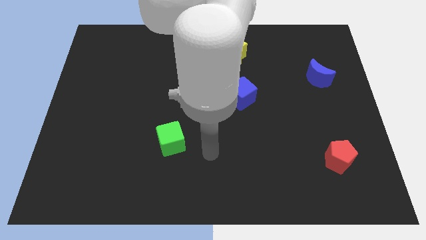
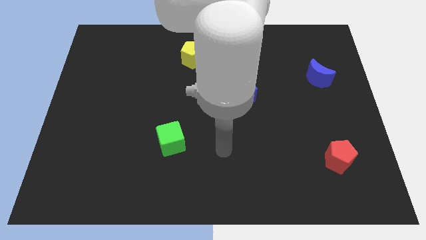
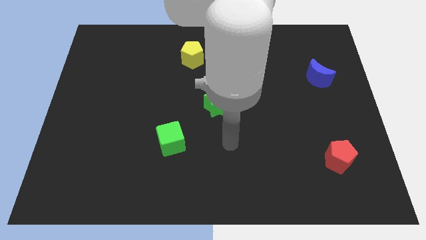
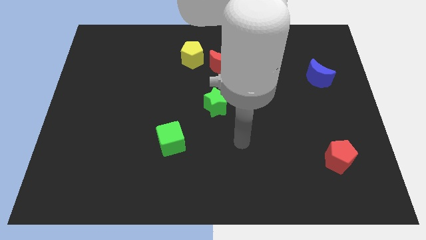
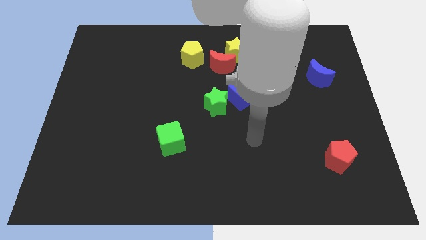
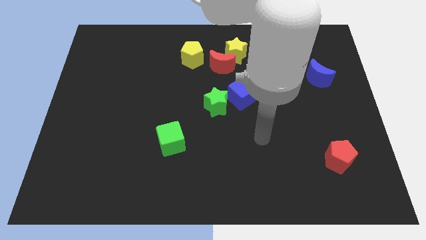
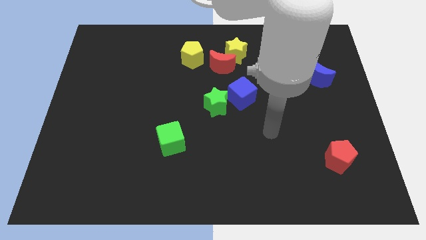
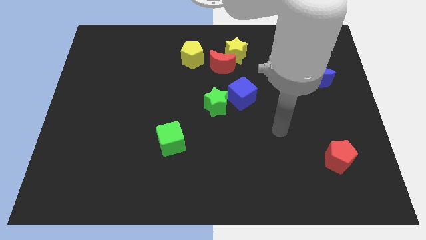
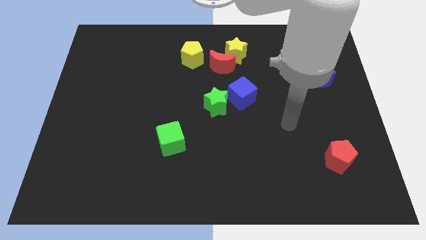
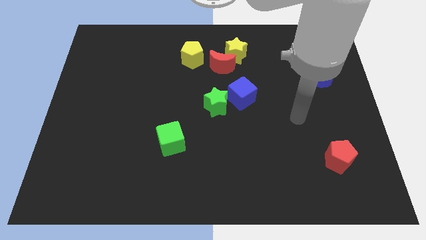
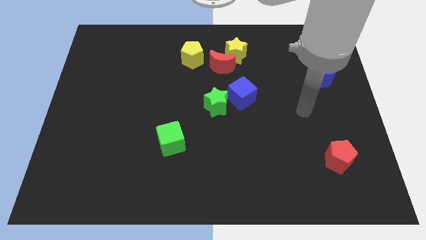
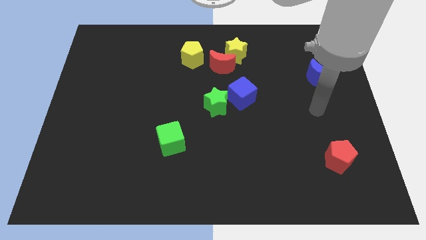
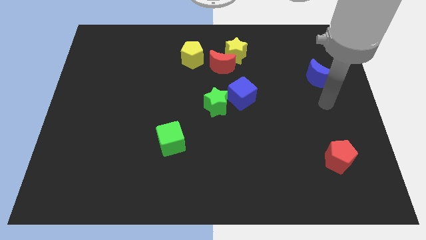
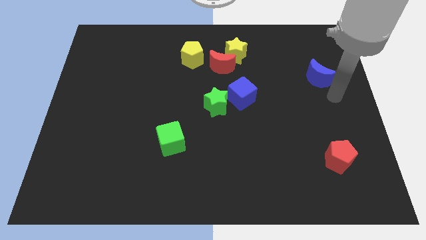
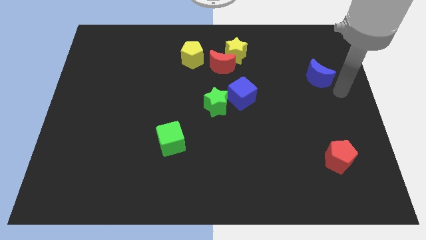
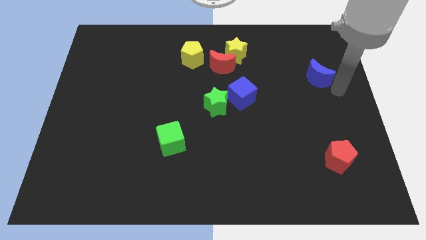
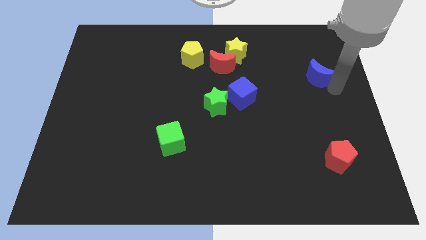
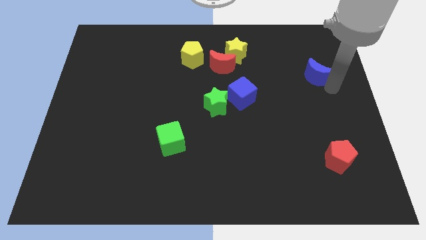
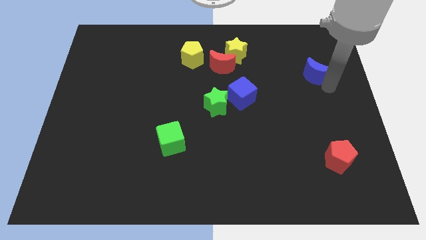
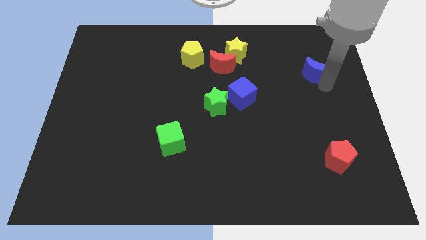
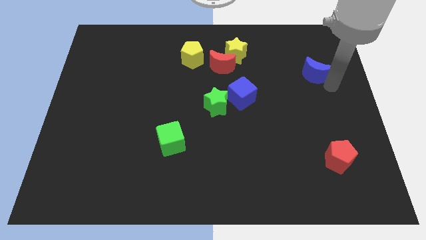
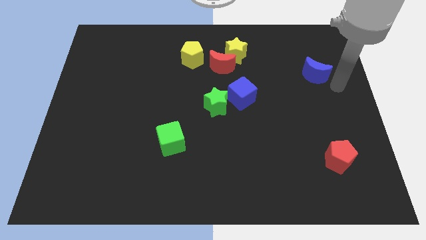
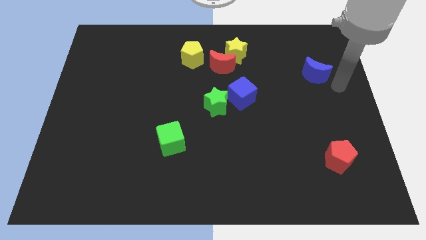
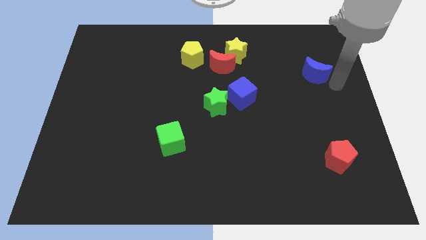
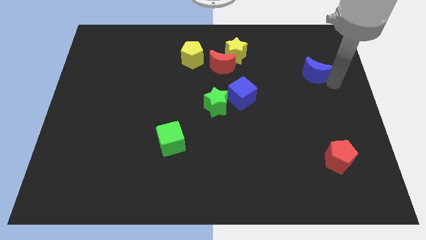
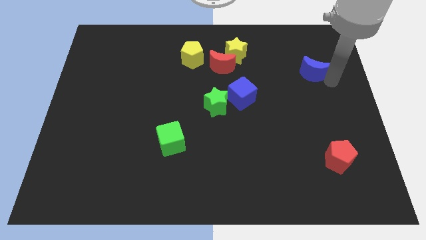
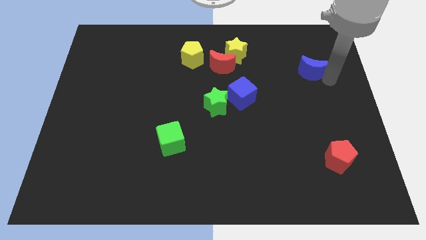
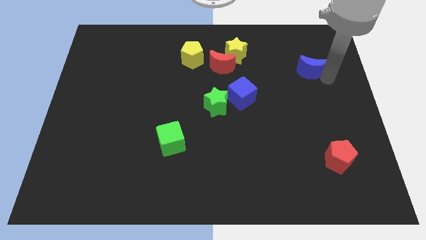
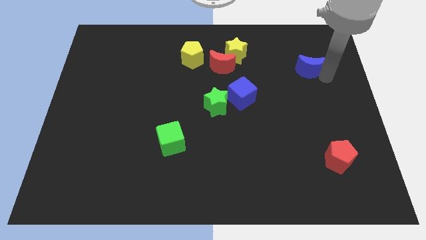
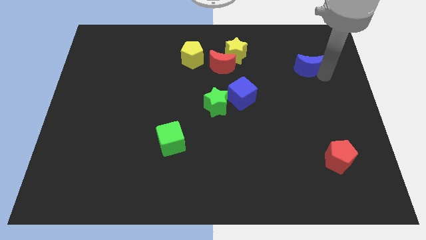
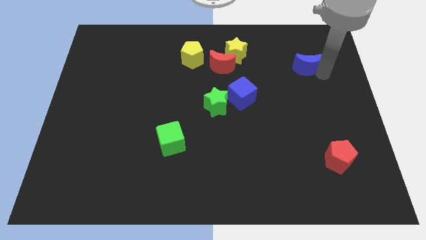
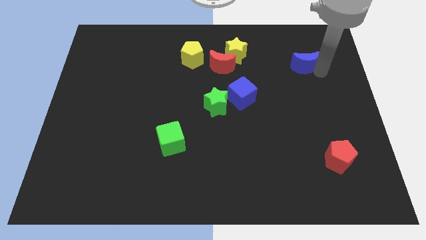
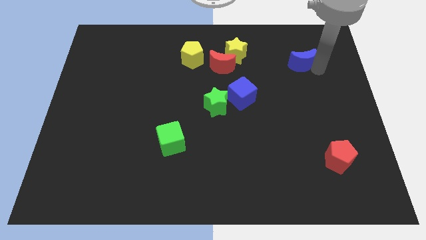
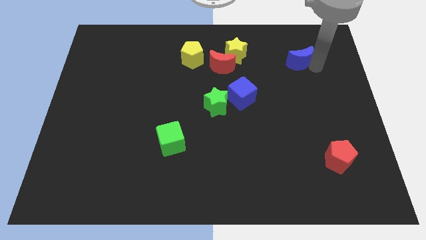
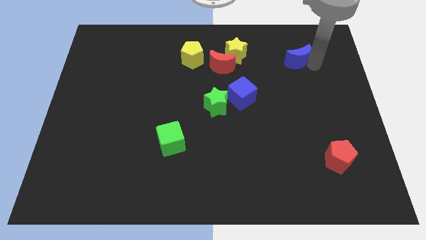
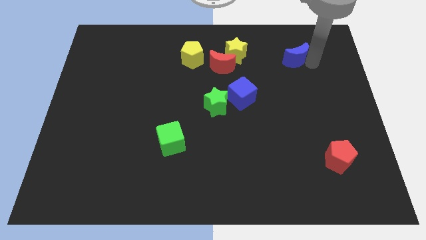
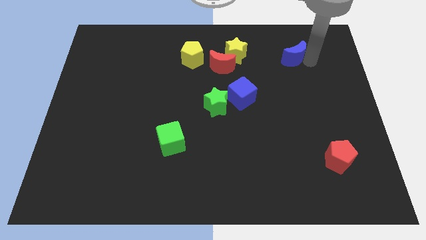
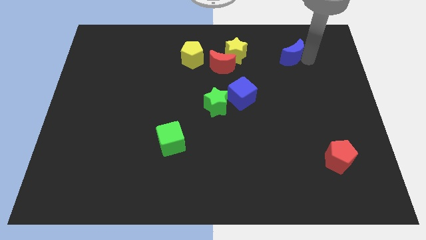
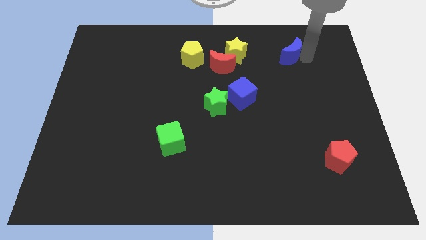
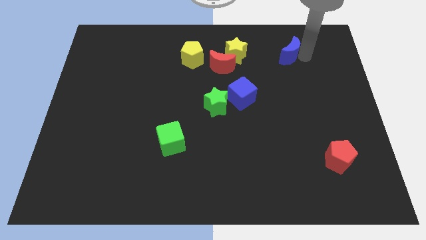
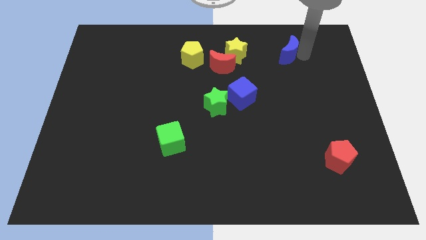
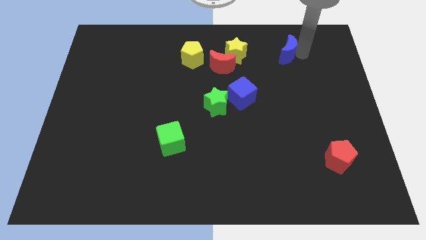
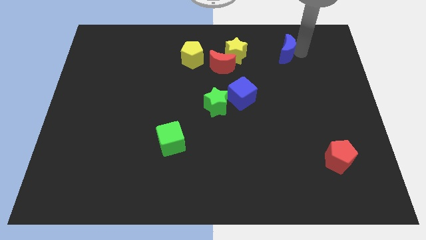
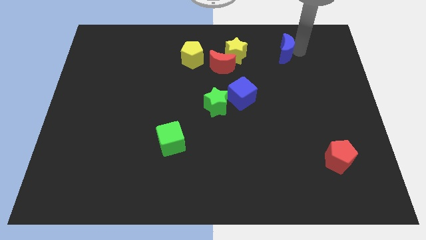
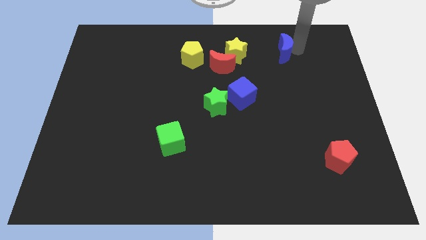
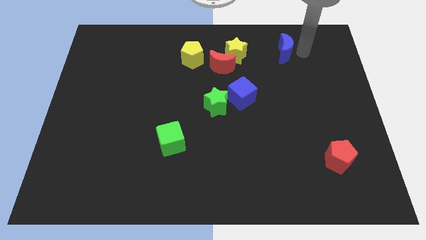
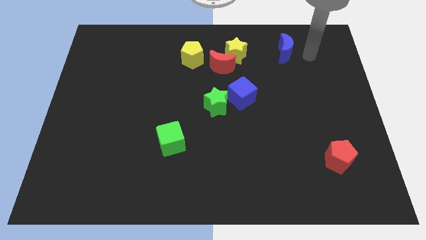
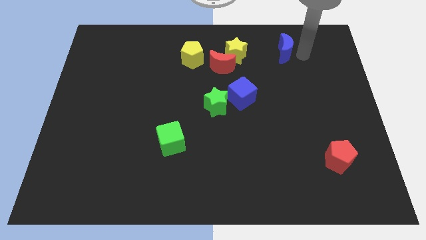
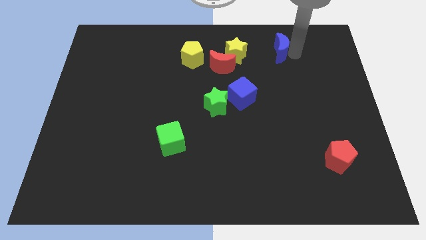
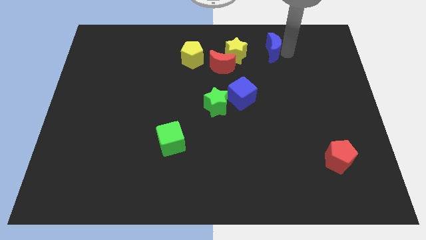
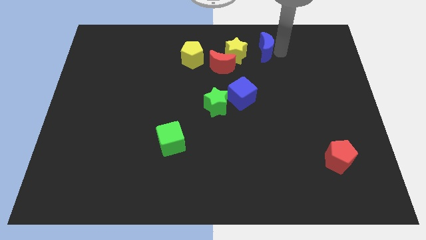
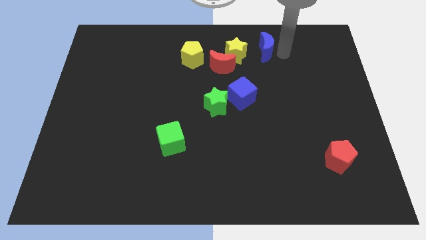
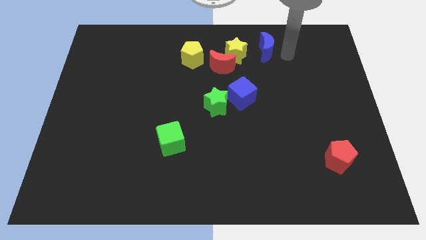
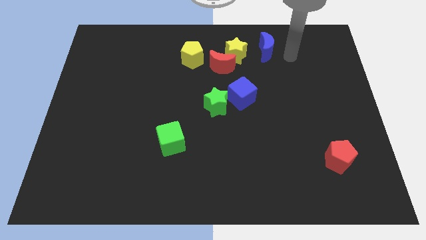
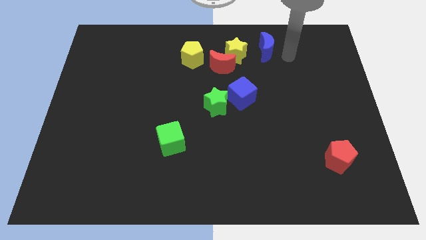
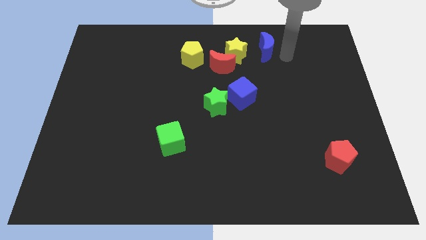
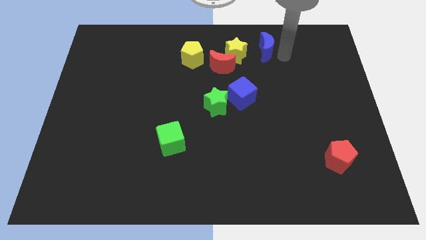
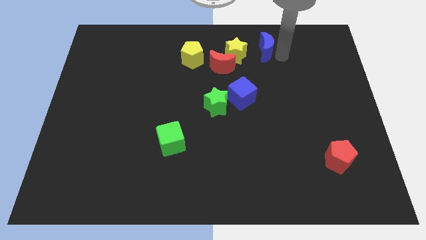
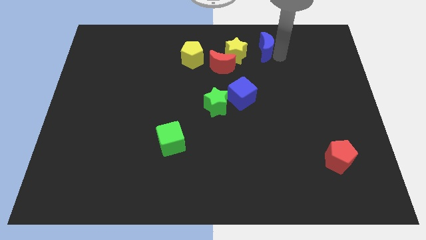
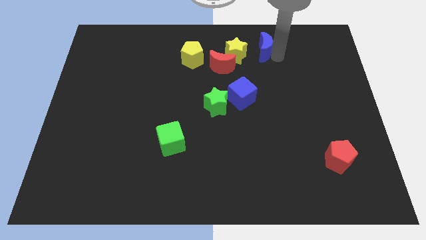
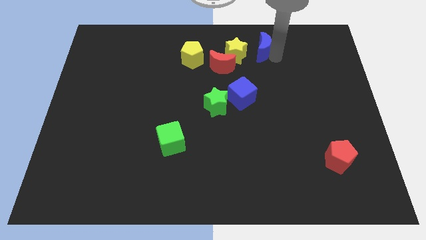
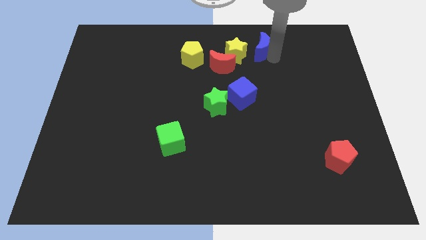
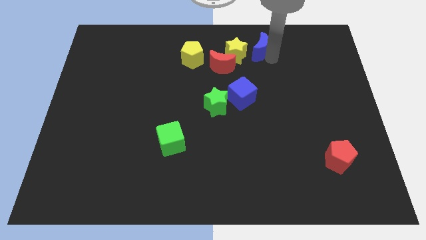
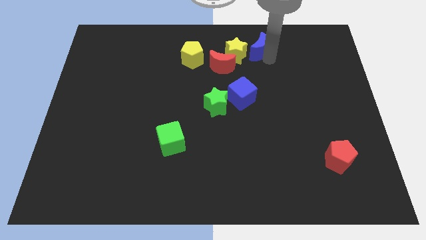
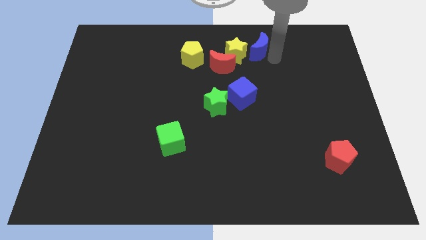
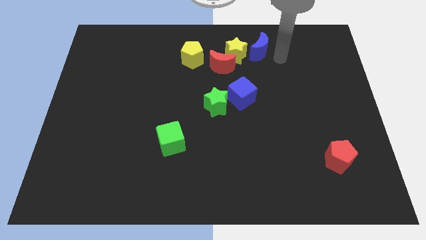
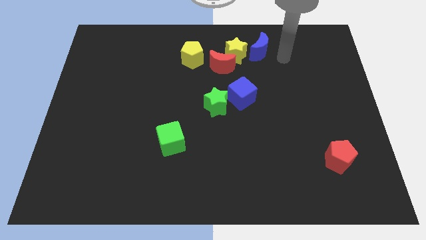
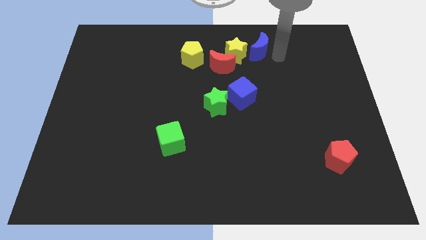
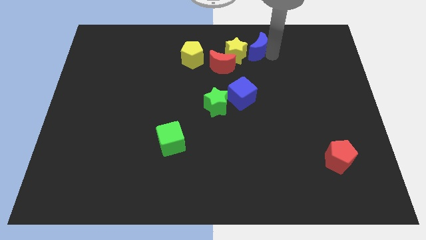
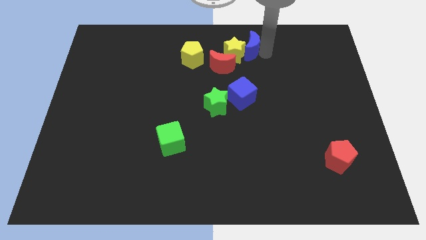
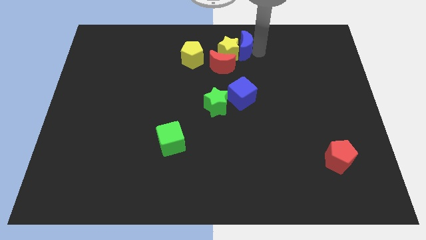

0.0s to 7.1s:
push the blue moon to the towards your base
